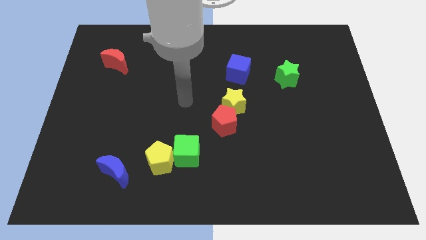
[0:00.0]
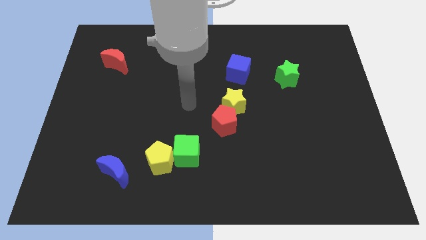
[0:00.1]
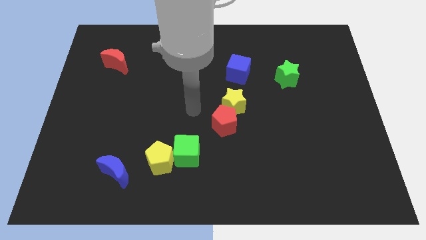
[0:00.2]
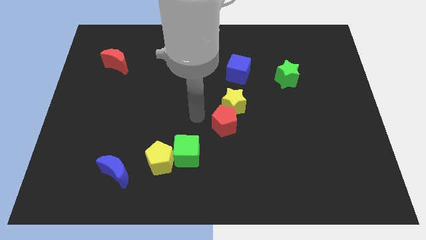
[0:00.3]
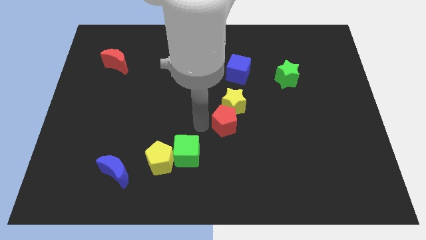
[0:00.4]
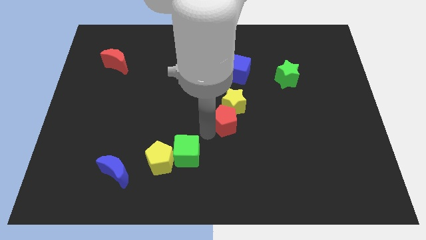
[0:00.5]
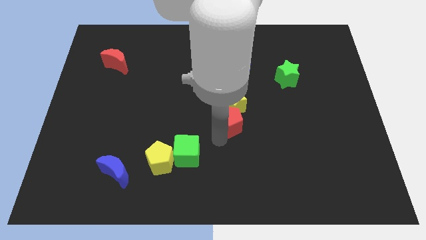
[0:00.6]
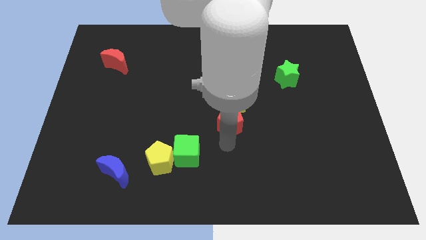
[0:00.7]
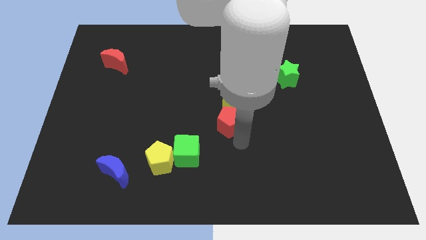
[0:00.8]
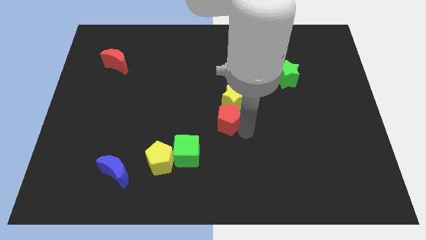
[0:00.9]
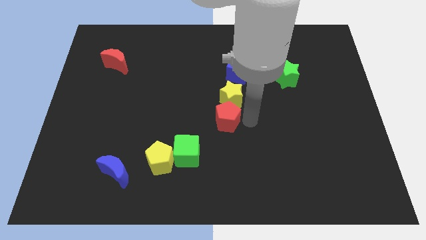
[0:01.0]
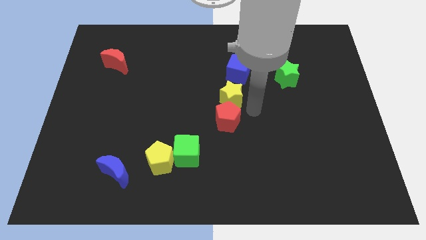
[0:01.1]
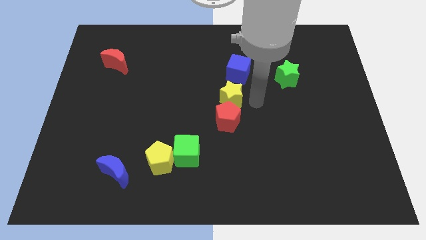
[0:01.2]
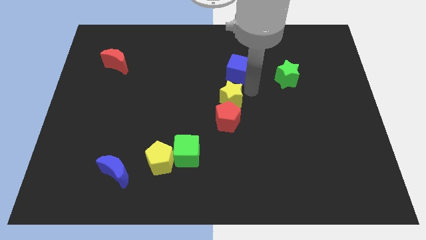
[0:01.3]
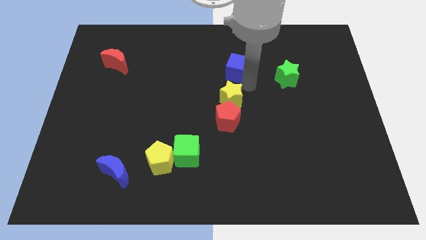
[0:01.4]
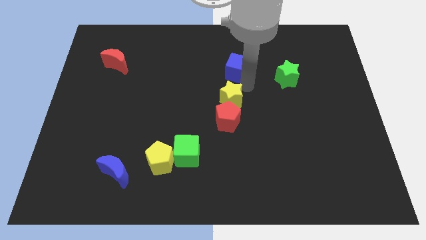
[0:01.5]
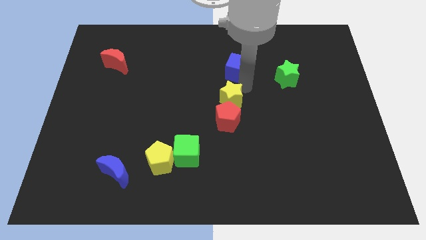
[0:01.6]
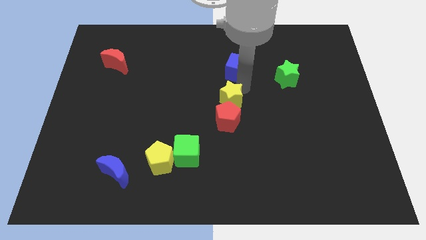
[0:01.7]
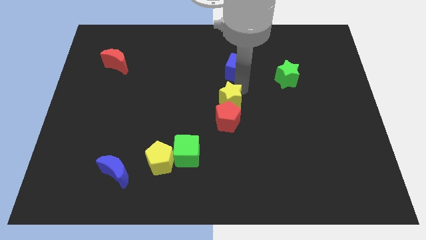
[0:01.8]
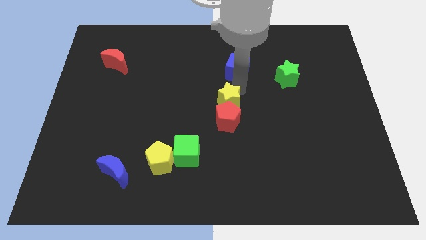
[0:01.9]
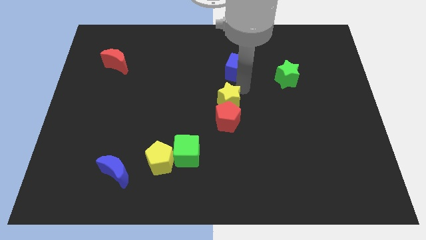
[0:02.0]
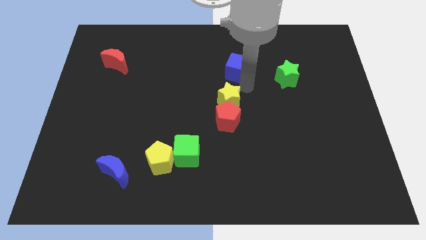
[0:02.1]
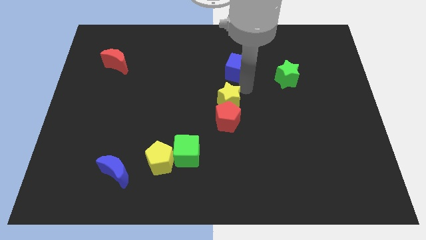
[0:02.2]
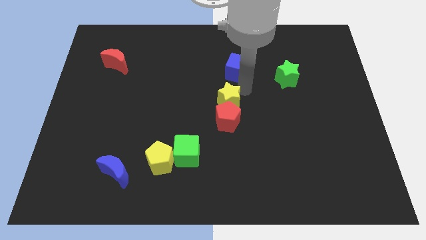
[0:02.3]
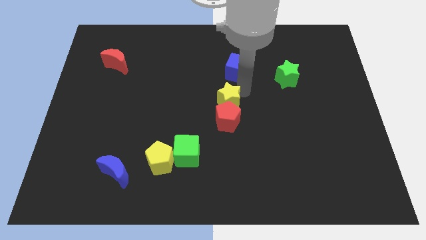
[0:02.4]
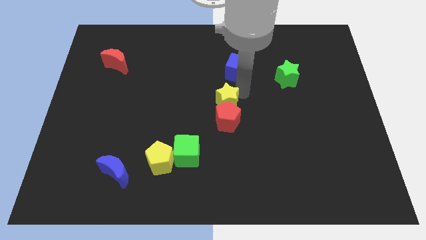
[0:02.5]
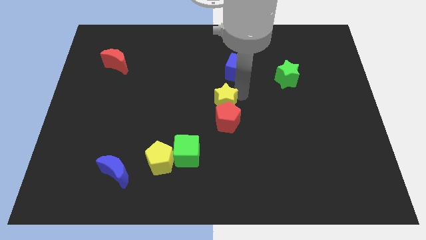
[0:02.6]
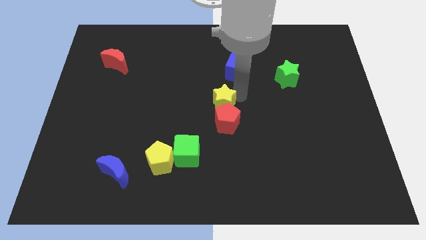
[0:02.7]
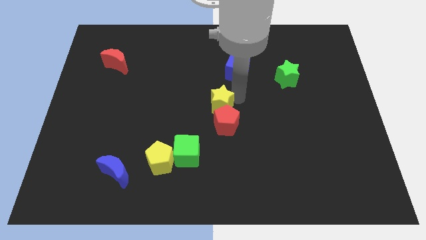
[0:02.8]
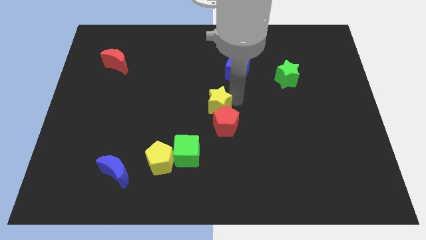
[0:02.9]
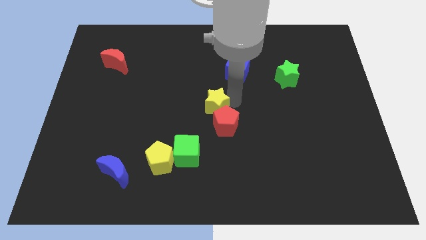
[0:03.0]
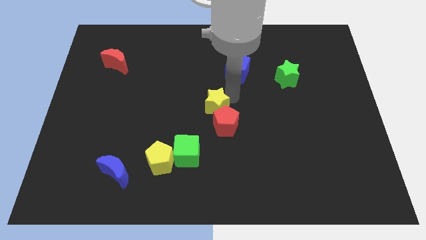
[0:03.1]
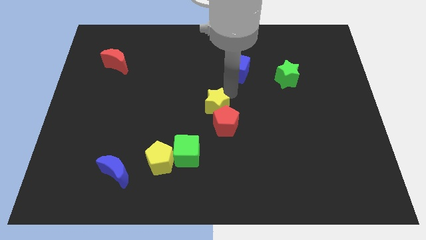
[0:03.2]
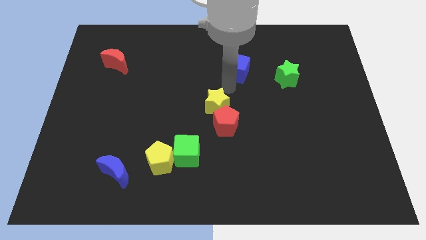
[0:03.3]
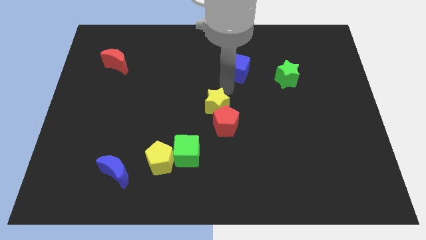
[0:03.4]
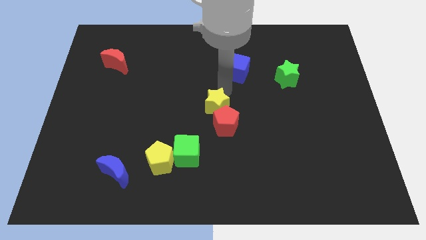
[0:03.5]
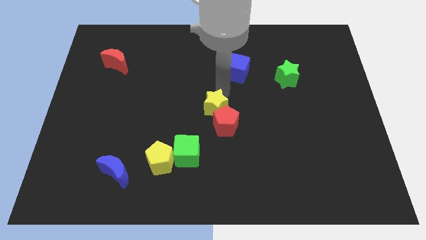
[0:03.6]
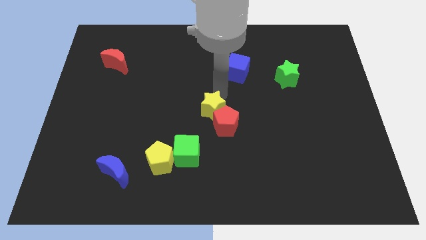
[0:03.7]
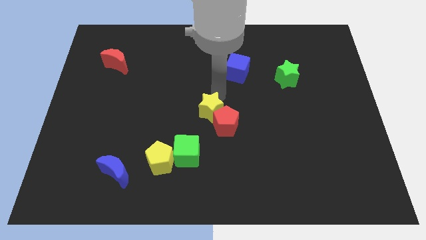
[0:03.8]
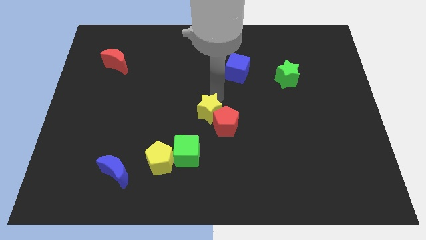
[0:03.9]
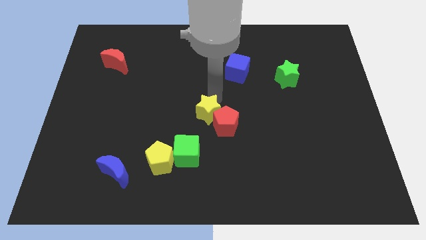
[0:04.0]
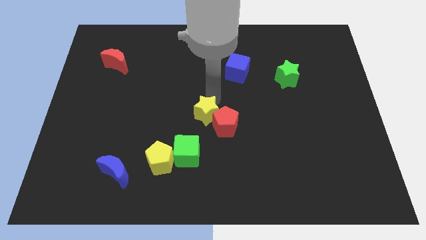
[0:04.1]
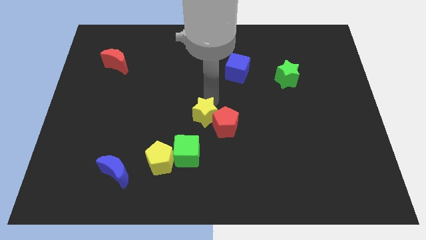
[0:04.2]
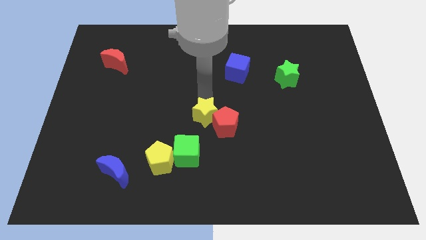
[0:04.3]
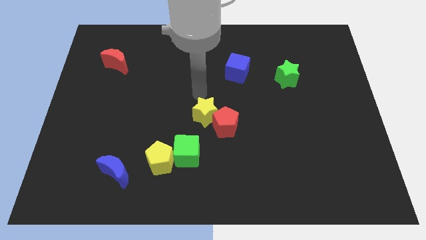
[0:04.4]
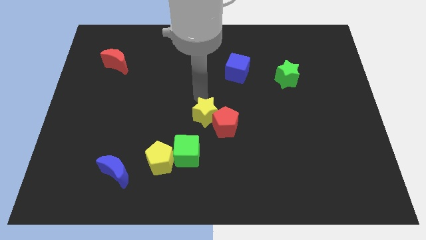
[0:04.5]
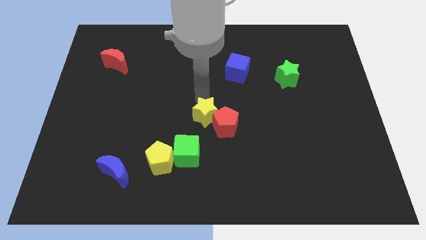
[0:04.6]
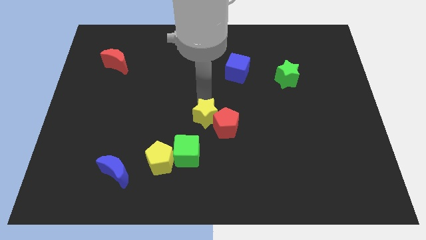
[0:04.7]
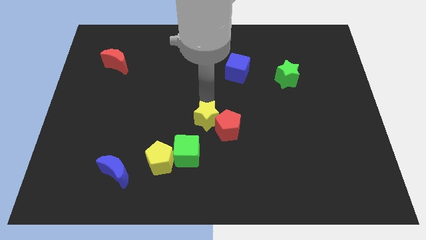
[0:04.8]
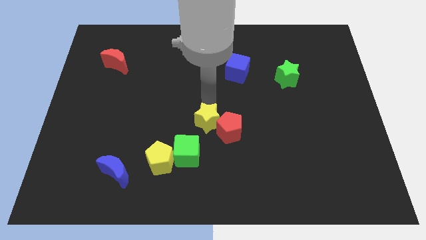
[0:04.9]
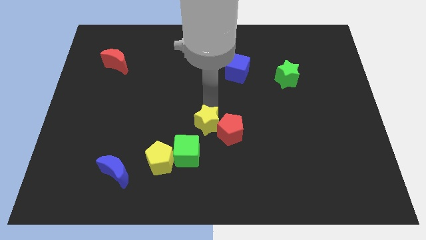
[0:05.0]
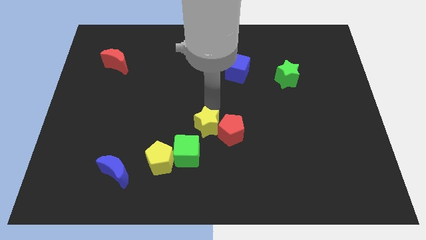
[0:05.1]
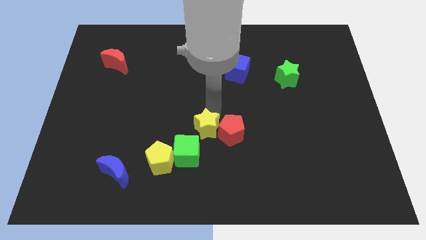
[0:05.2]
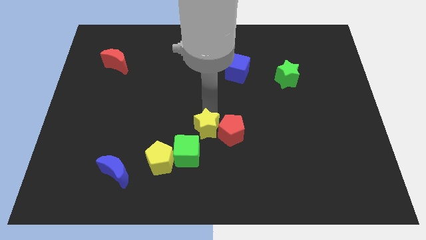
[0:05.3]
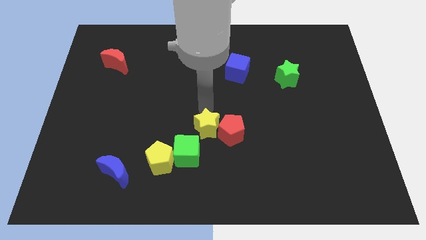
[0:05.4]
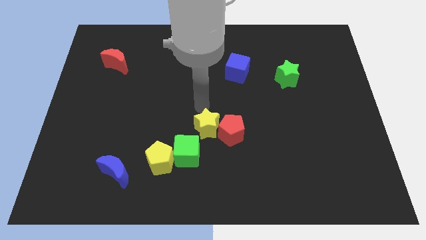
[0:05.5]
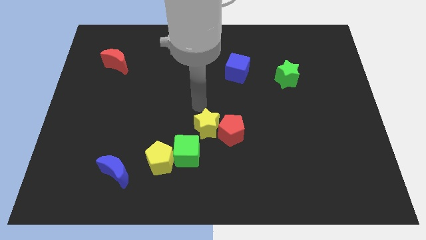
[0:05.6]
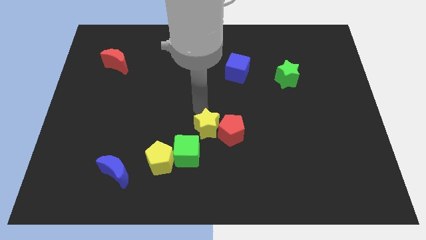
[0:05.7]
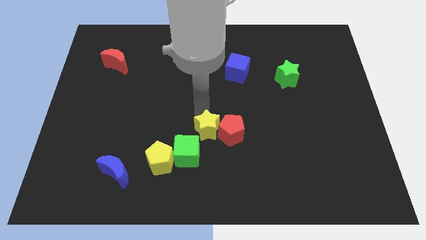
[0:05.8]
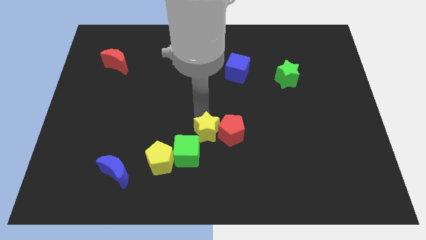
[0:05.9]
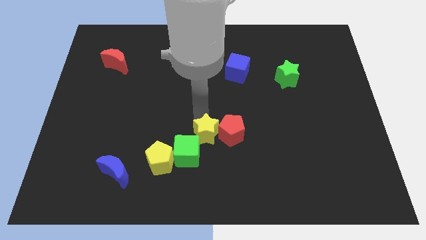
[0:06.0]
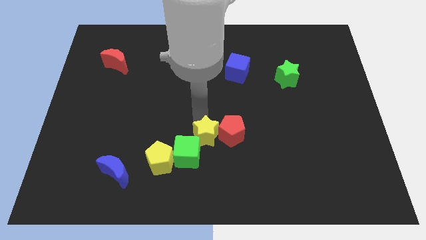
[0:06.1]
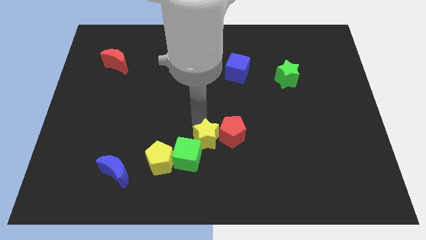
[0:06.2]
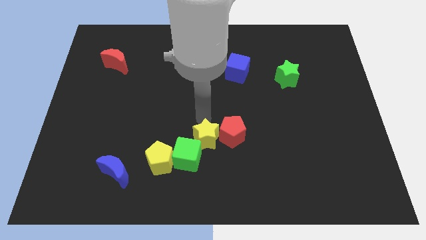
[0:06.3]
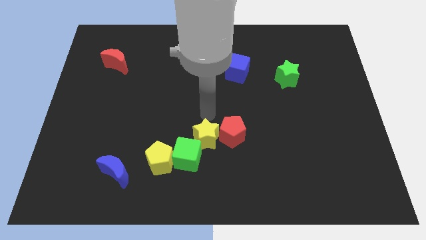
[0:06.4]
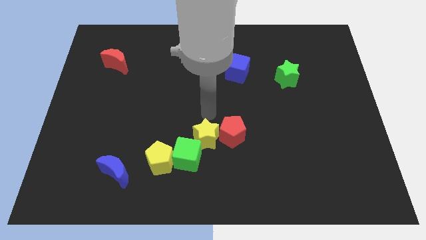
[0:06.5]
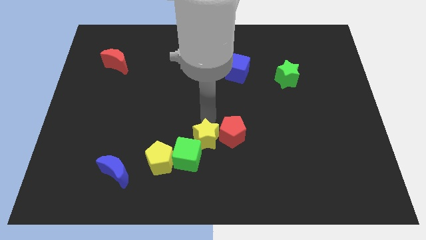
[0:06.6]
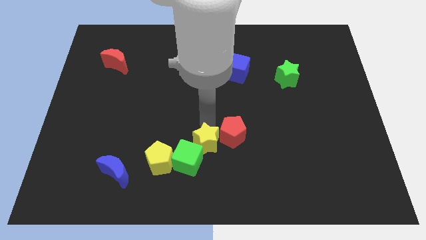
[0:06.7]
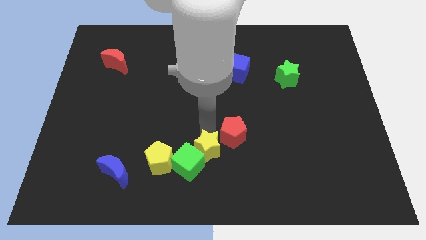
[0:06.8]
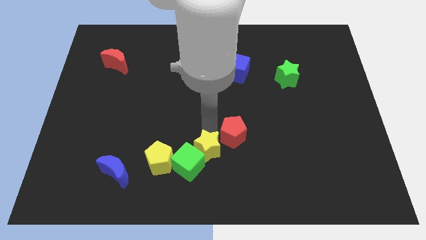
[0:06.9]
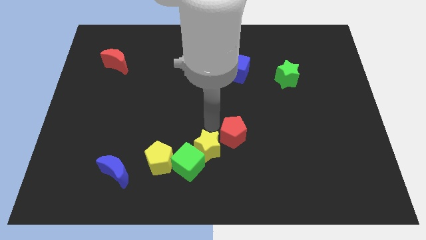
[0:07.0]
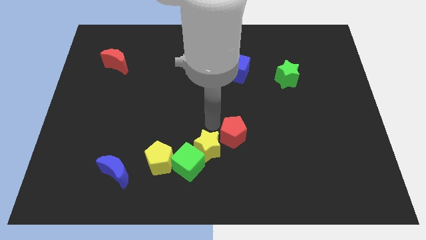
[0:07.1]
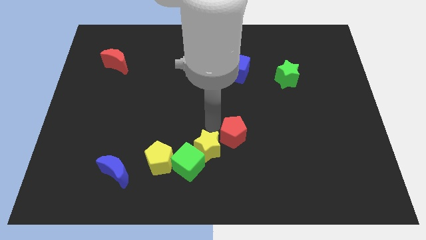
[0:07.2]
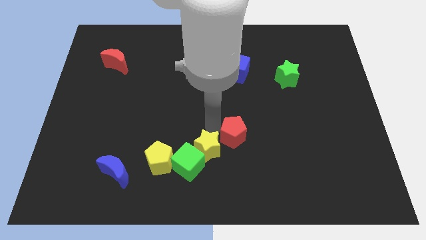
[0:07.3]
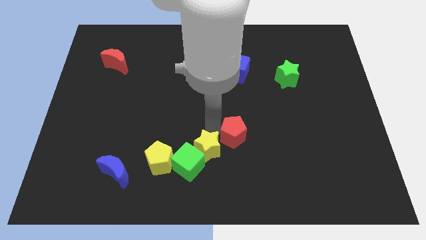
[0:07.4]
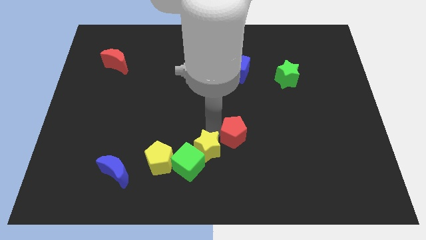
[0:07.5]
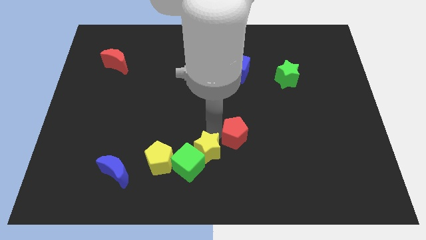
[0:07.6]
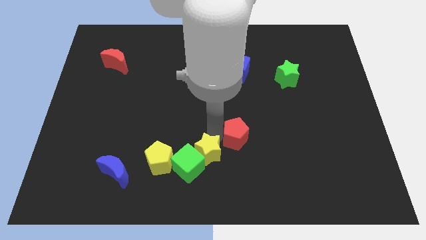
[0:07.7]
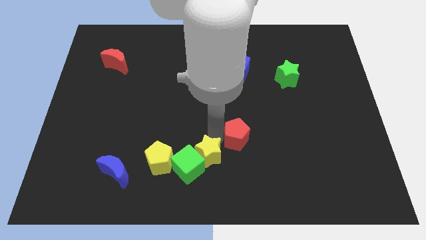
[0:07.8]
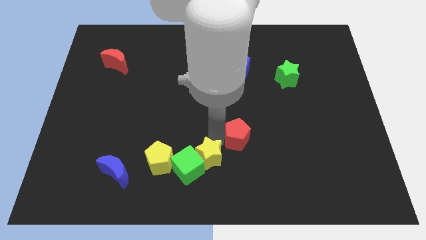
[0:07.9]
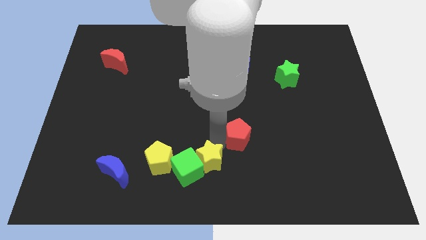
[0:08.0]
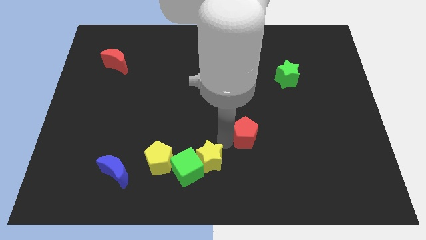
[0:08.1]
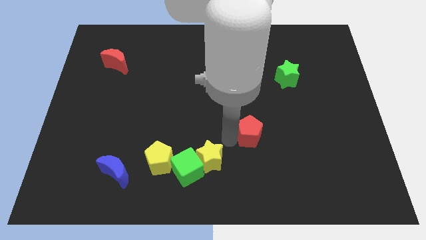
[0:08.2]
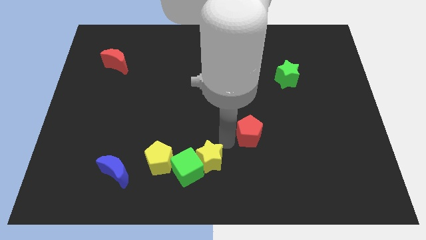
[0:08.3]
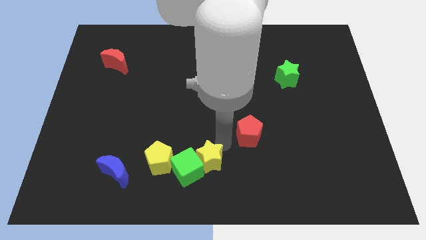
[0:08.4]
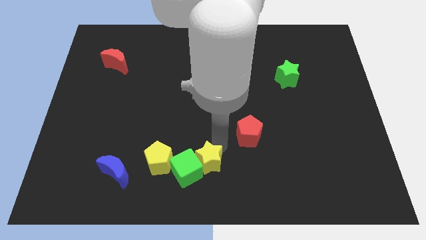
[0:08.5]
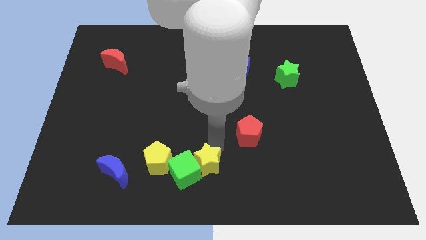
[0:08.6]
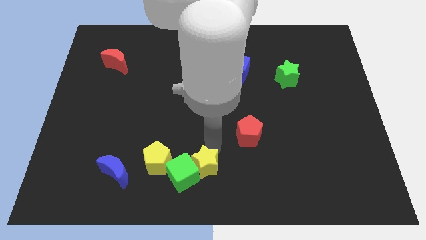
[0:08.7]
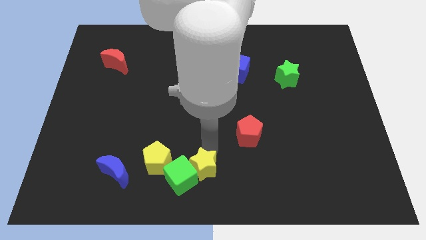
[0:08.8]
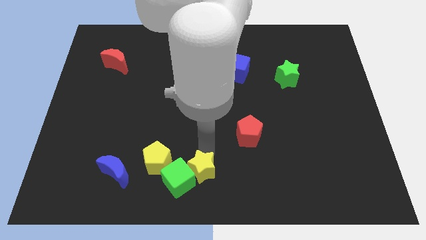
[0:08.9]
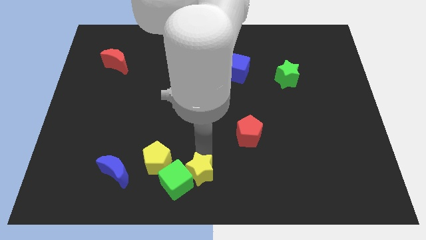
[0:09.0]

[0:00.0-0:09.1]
put the yellow star diagonally down and to the right of the yellow pentagon
